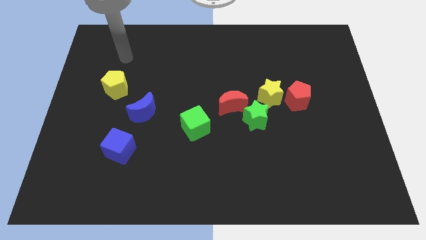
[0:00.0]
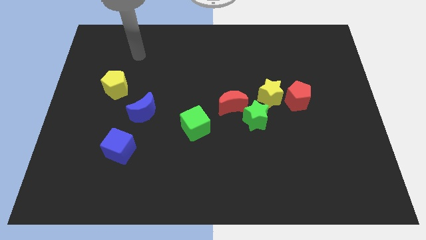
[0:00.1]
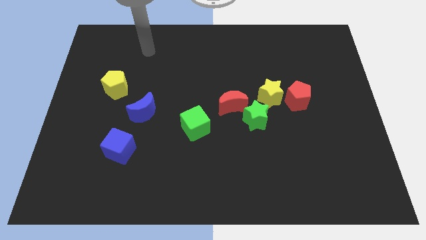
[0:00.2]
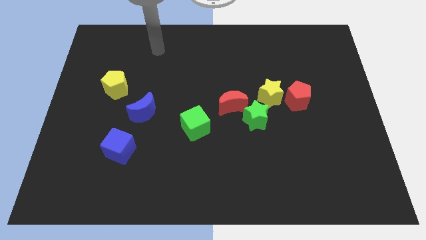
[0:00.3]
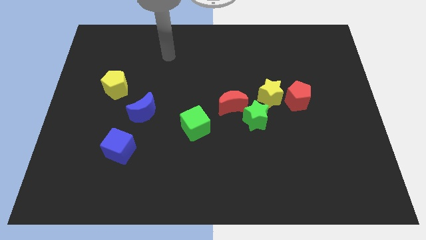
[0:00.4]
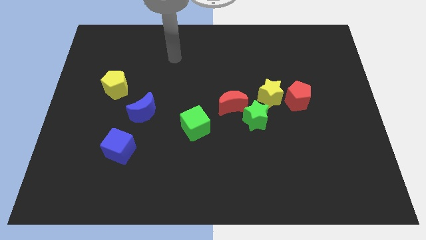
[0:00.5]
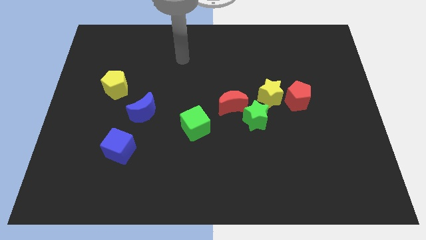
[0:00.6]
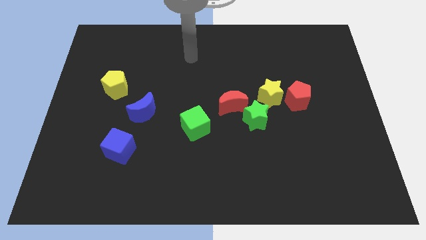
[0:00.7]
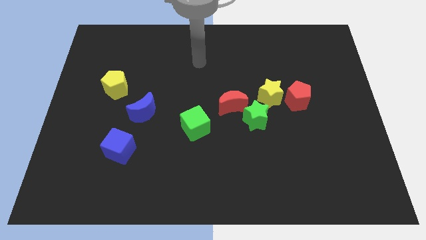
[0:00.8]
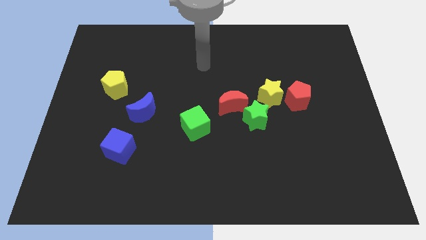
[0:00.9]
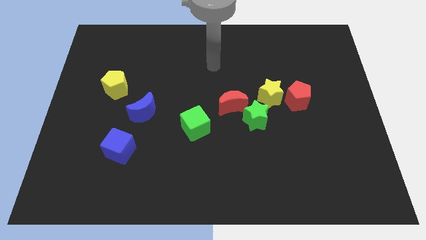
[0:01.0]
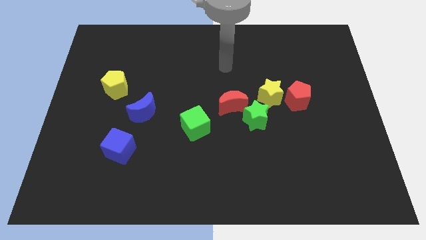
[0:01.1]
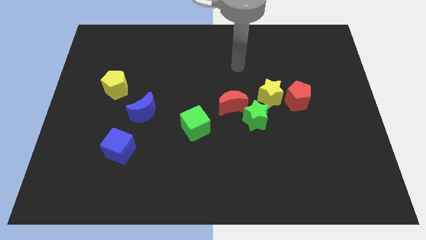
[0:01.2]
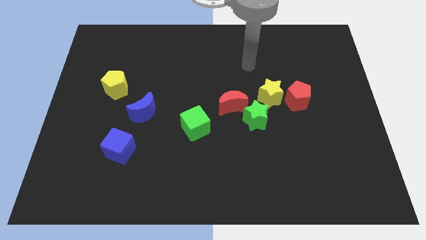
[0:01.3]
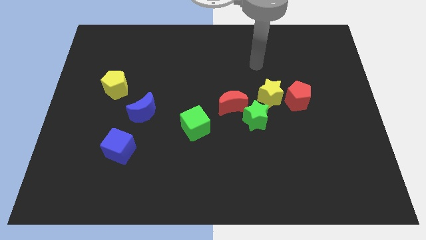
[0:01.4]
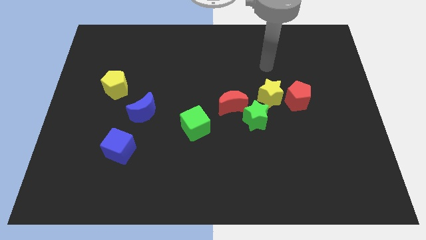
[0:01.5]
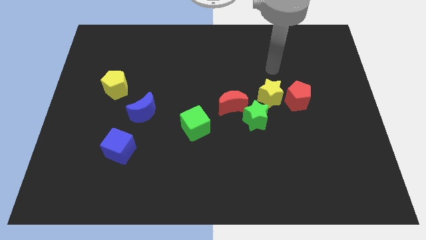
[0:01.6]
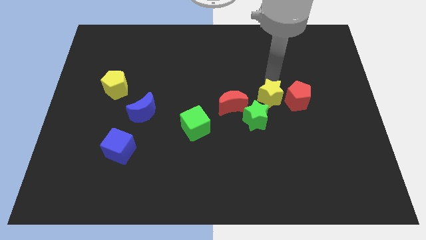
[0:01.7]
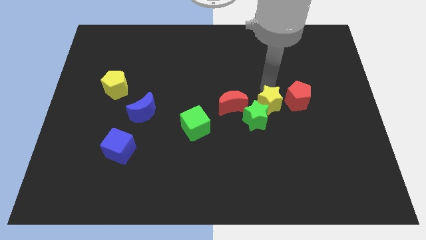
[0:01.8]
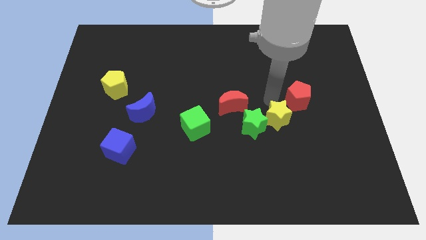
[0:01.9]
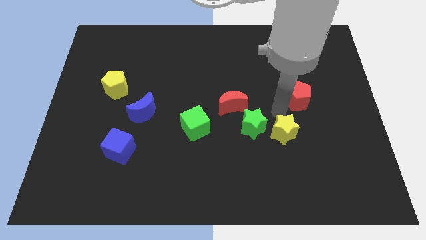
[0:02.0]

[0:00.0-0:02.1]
move the red pentagon away from the yellow star

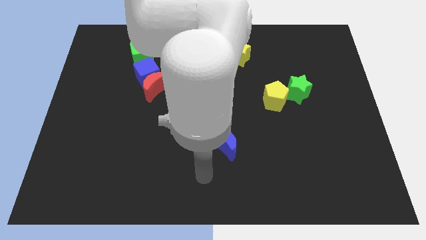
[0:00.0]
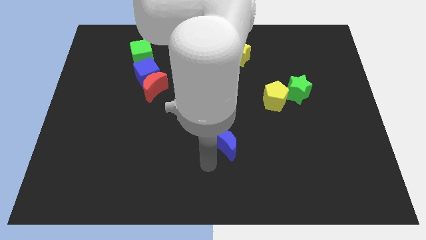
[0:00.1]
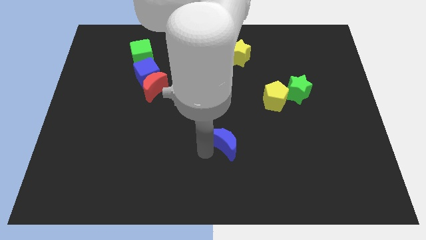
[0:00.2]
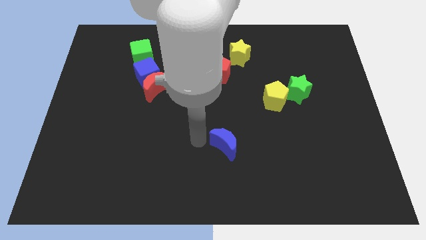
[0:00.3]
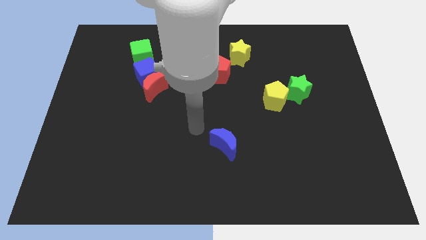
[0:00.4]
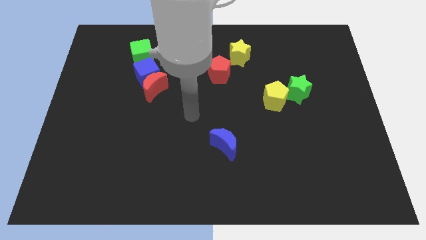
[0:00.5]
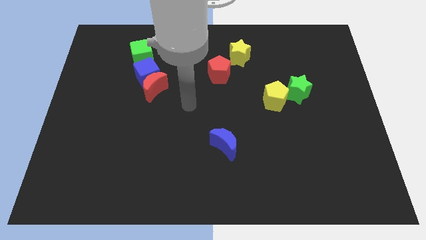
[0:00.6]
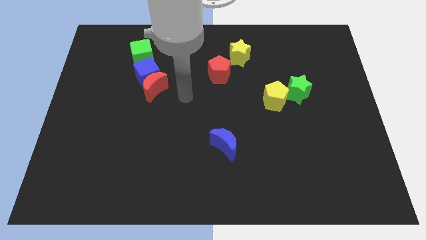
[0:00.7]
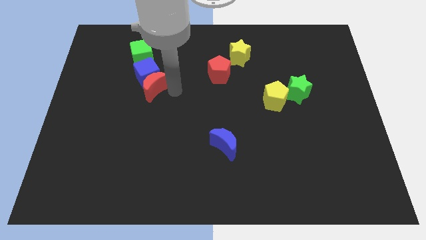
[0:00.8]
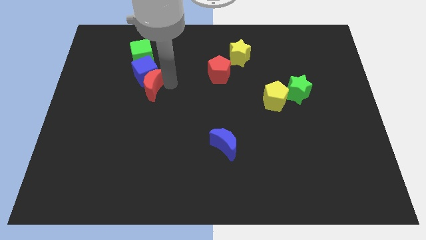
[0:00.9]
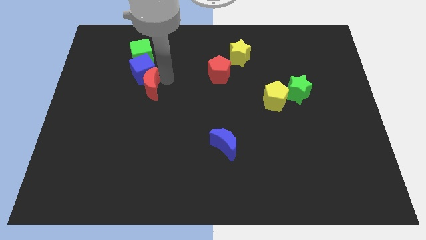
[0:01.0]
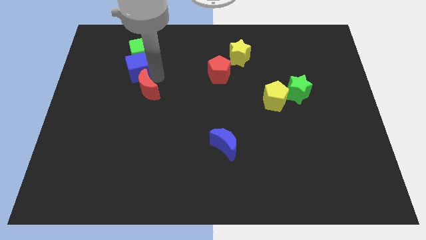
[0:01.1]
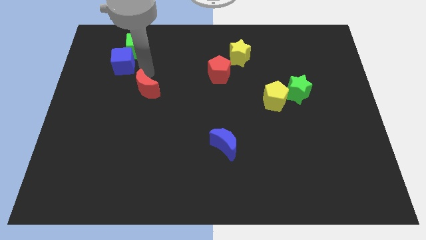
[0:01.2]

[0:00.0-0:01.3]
pull the red moon apart from the blue cube

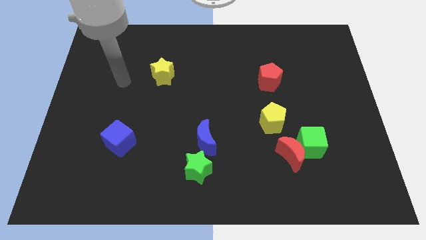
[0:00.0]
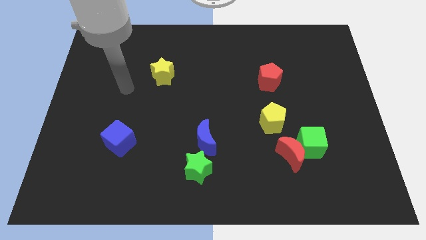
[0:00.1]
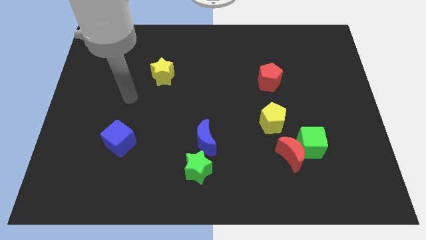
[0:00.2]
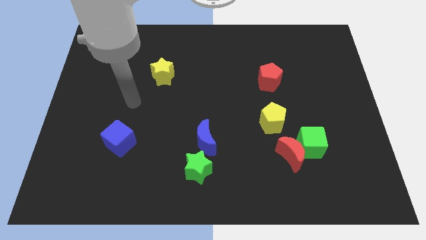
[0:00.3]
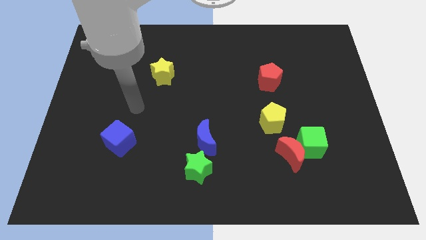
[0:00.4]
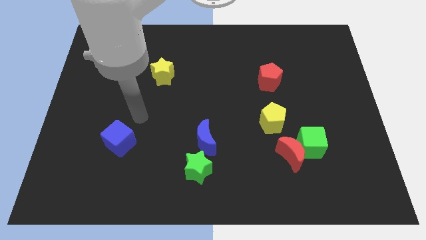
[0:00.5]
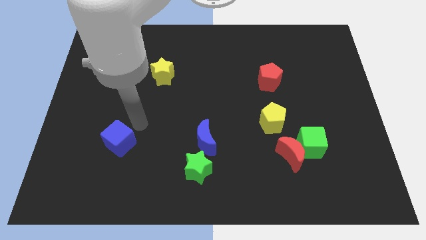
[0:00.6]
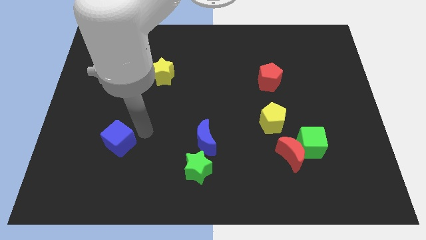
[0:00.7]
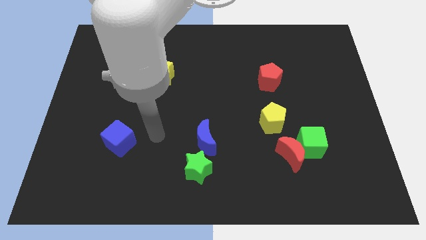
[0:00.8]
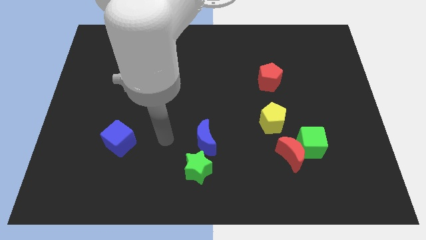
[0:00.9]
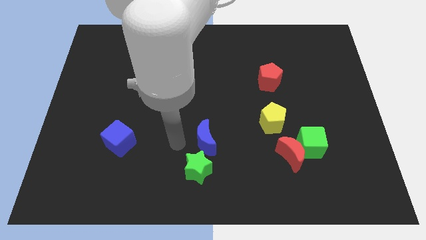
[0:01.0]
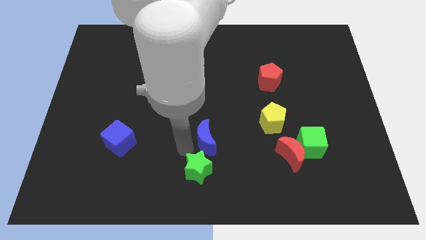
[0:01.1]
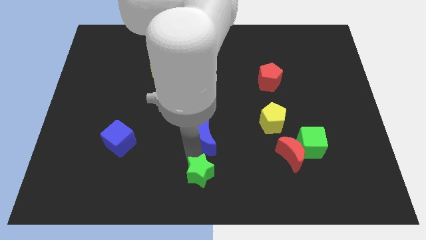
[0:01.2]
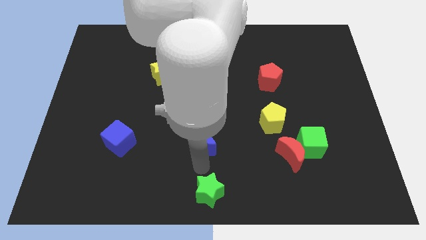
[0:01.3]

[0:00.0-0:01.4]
pull the blue moon apart from the green star

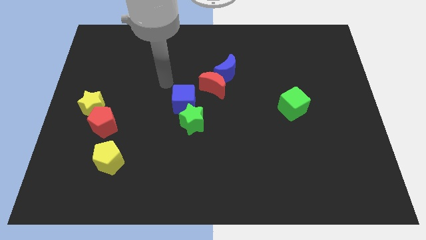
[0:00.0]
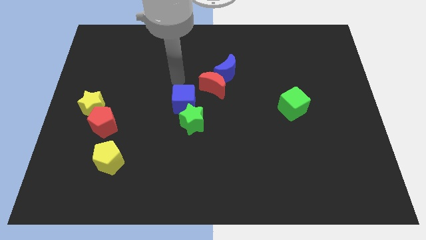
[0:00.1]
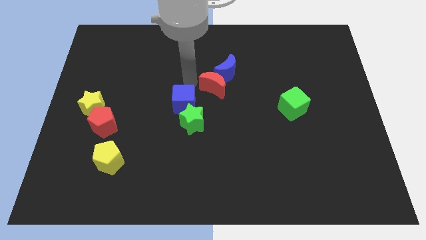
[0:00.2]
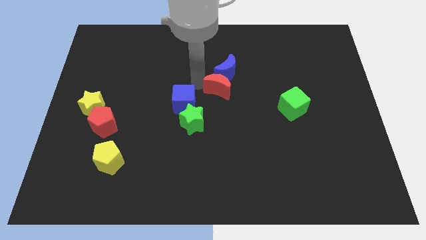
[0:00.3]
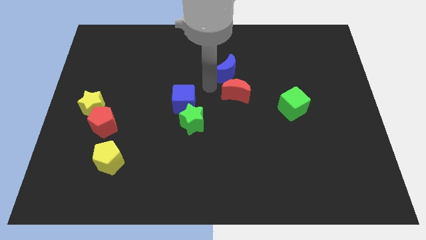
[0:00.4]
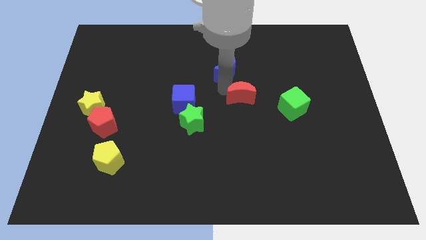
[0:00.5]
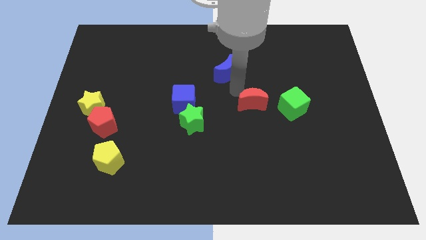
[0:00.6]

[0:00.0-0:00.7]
pull the blue moon apart from the red moon

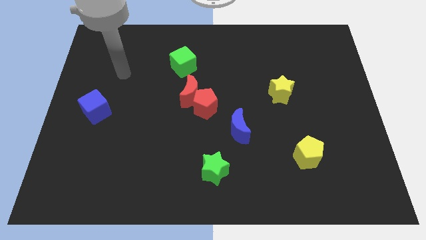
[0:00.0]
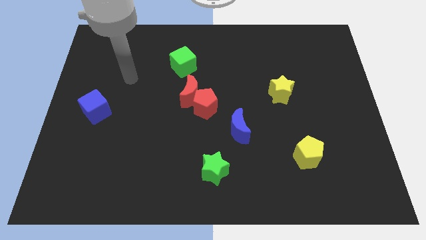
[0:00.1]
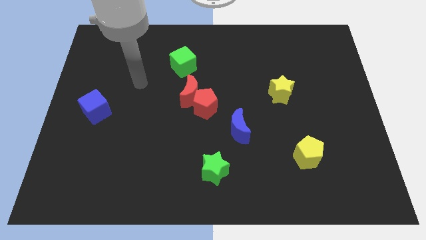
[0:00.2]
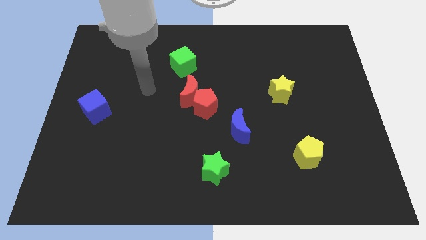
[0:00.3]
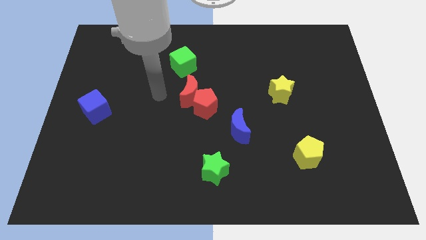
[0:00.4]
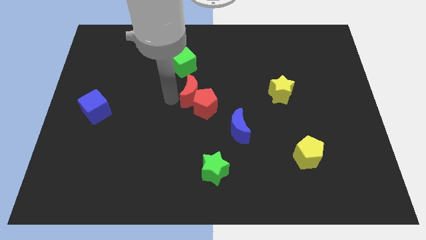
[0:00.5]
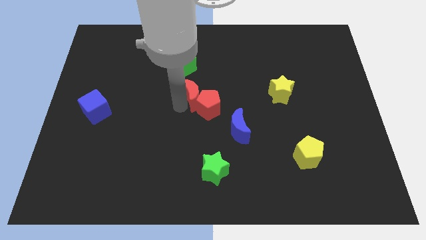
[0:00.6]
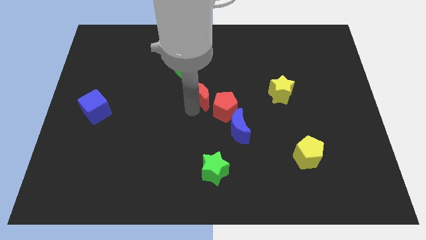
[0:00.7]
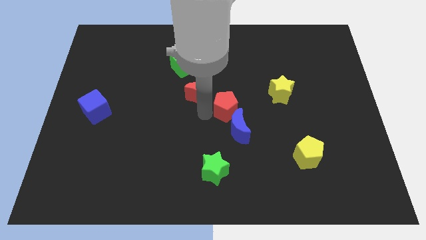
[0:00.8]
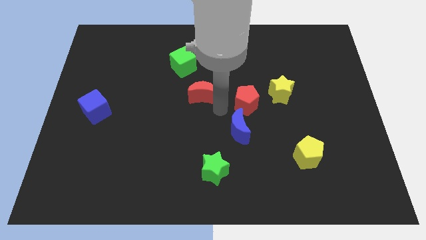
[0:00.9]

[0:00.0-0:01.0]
pull the red moon apart from the red pentagon

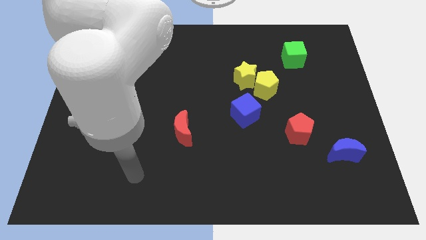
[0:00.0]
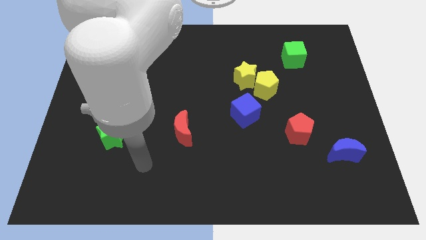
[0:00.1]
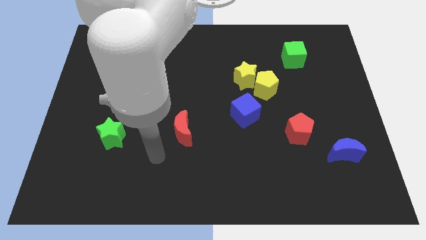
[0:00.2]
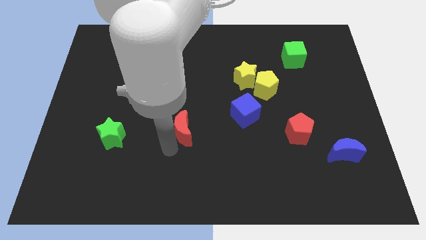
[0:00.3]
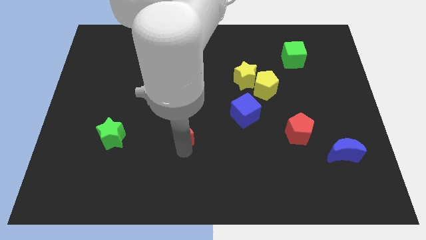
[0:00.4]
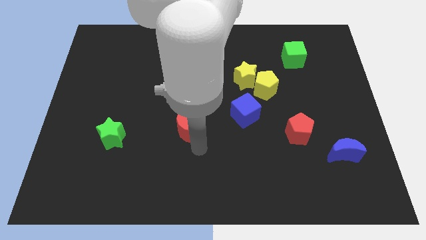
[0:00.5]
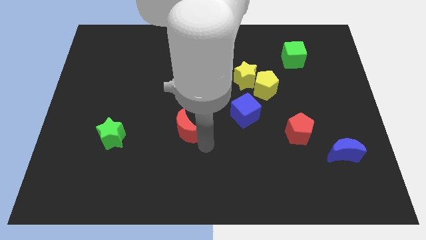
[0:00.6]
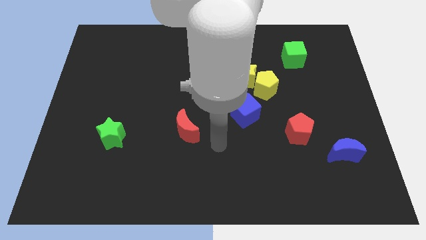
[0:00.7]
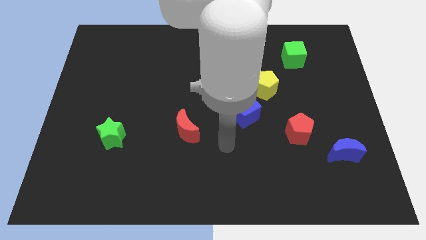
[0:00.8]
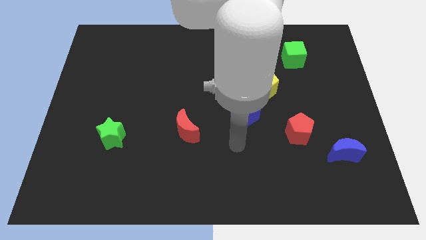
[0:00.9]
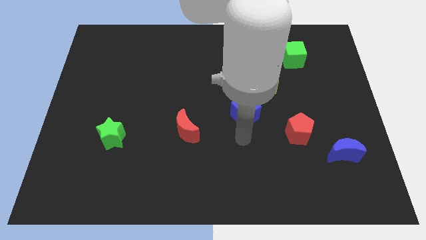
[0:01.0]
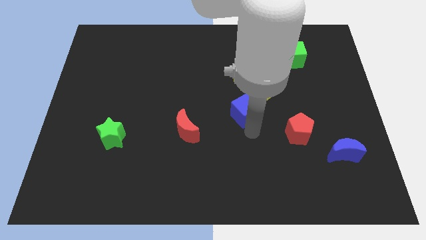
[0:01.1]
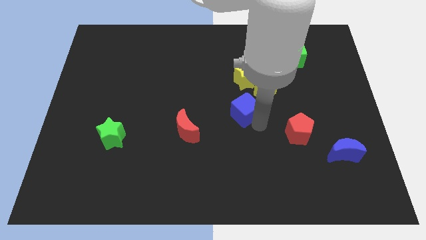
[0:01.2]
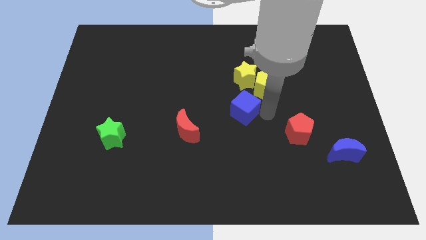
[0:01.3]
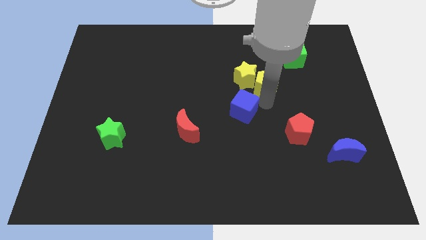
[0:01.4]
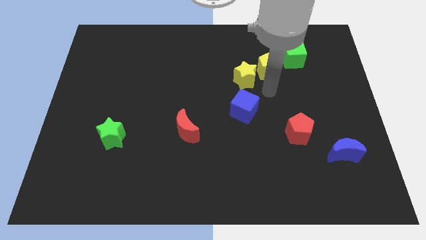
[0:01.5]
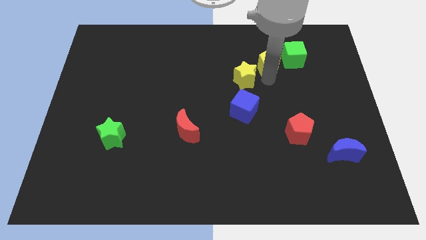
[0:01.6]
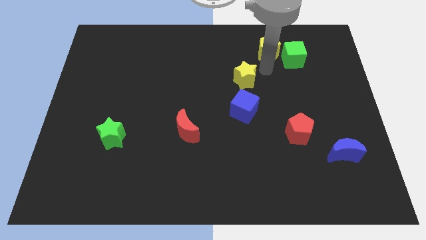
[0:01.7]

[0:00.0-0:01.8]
move the yellow star away from the yellow pentagon

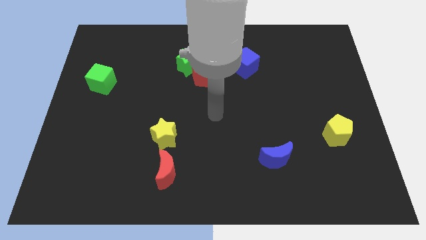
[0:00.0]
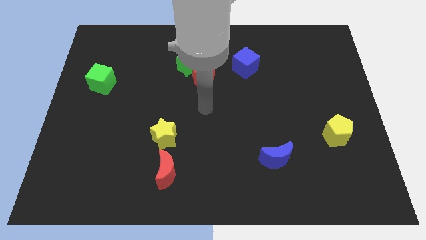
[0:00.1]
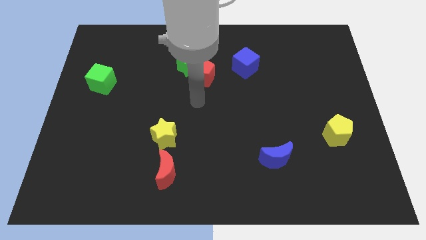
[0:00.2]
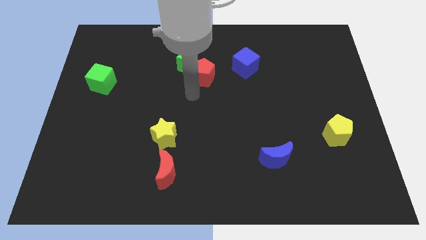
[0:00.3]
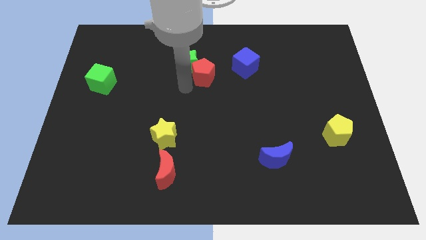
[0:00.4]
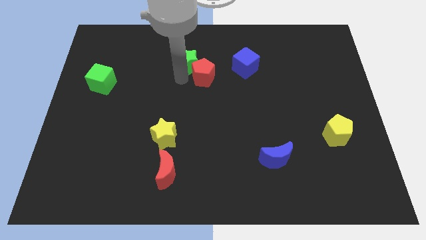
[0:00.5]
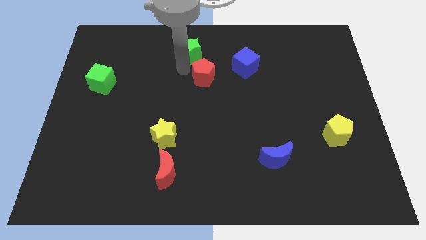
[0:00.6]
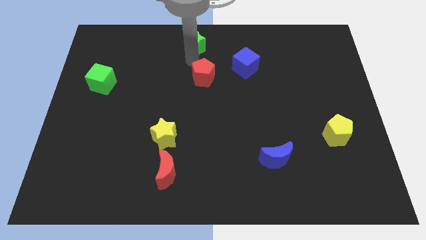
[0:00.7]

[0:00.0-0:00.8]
separate the red pentagon from the green star

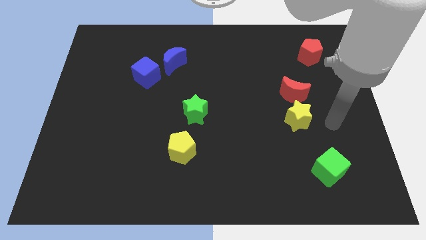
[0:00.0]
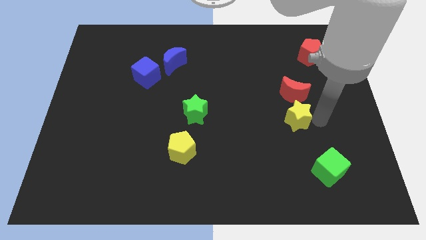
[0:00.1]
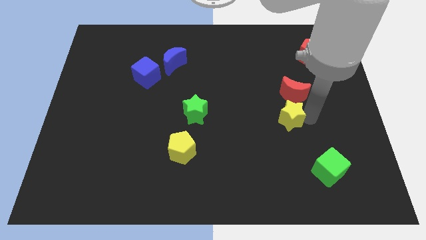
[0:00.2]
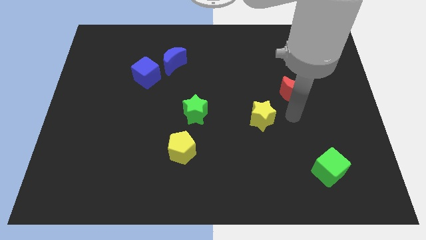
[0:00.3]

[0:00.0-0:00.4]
pull the red moon apart from the yellow star
